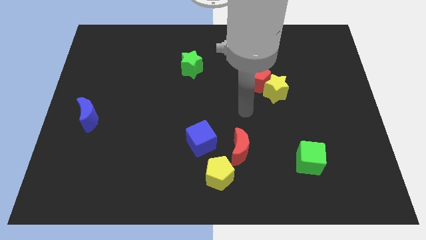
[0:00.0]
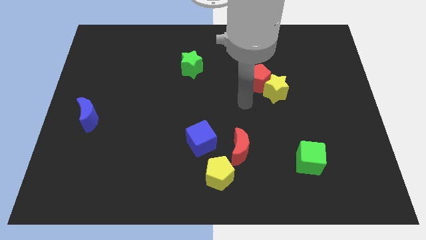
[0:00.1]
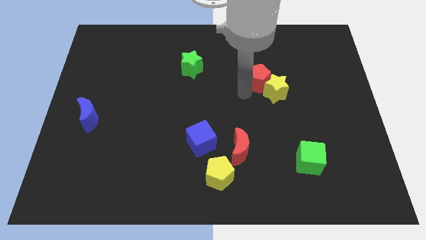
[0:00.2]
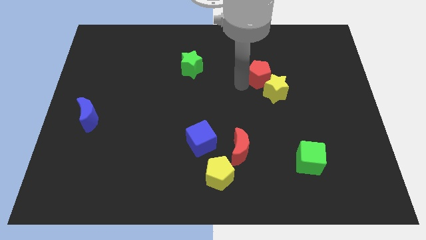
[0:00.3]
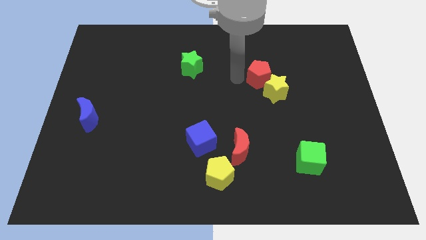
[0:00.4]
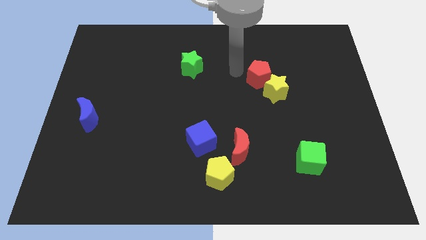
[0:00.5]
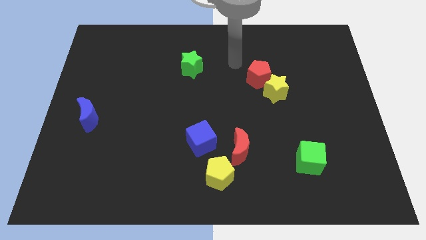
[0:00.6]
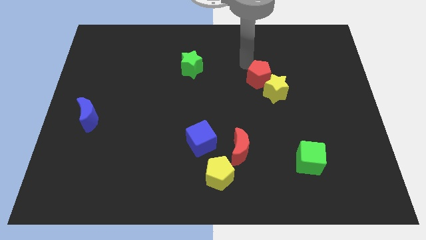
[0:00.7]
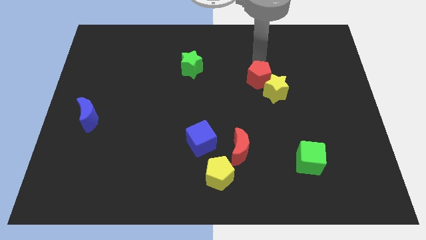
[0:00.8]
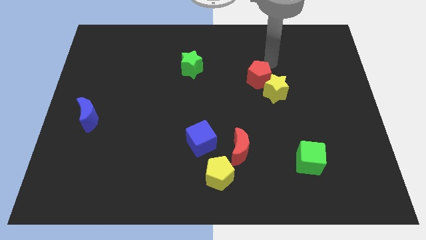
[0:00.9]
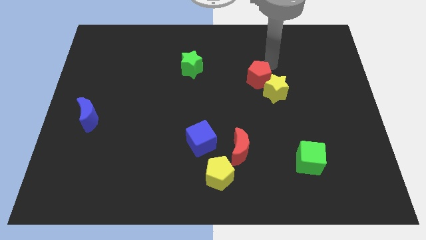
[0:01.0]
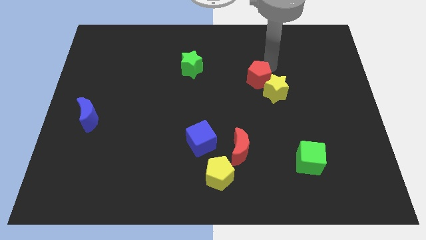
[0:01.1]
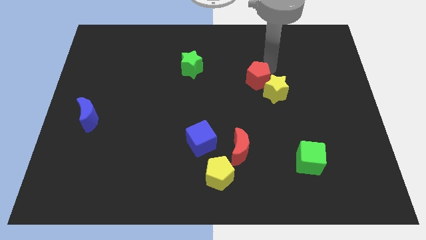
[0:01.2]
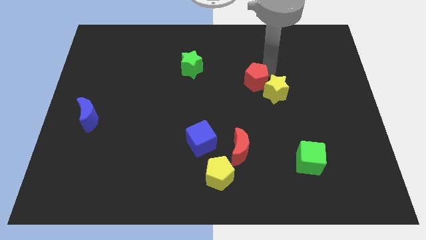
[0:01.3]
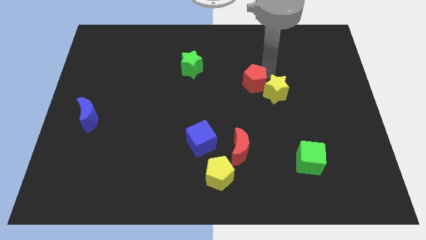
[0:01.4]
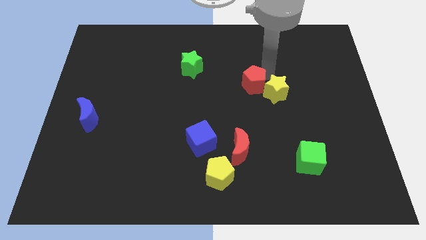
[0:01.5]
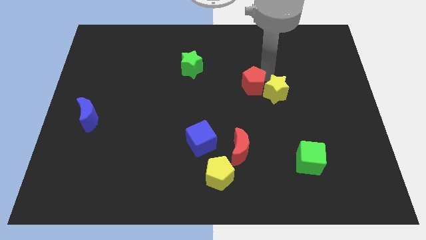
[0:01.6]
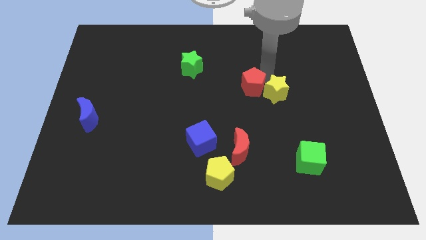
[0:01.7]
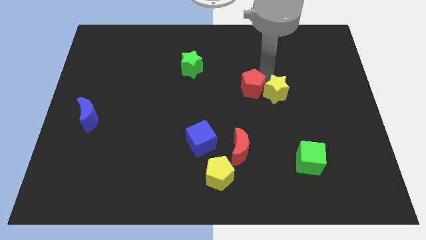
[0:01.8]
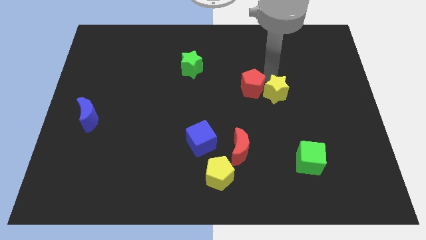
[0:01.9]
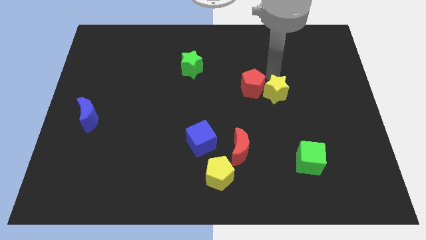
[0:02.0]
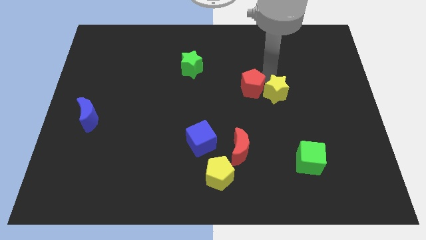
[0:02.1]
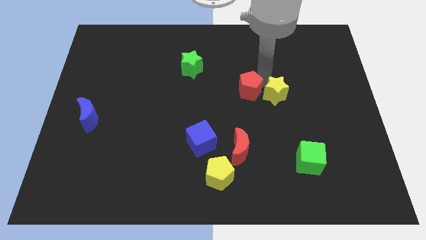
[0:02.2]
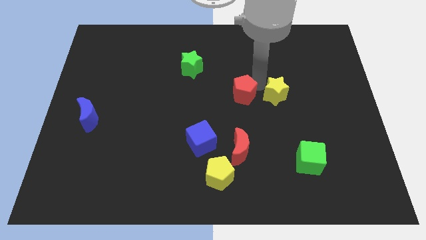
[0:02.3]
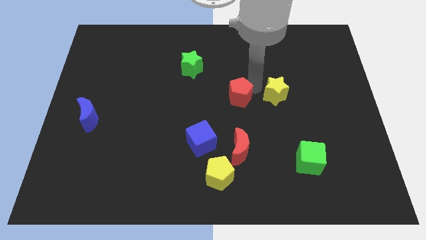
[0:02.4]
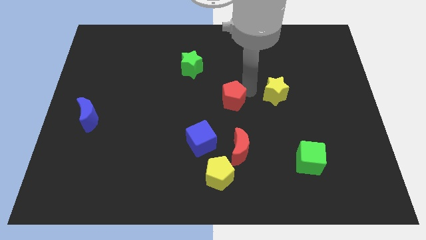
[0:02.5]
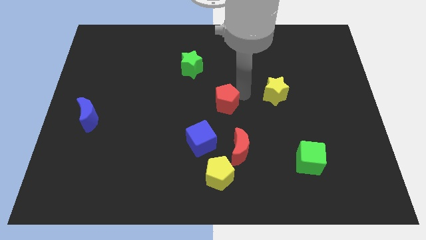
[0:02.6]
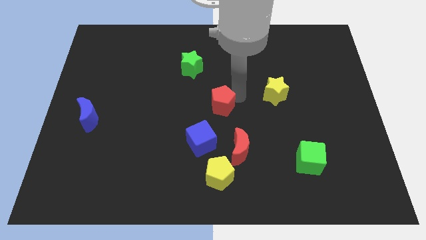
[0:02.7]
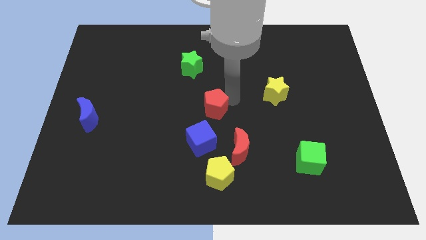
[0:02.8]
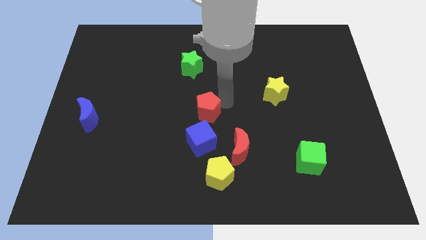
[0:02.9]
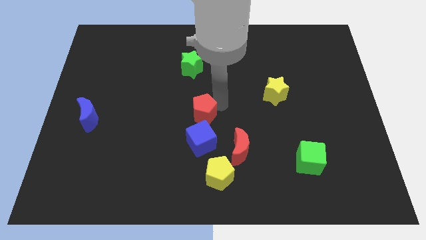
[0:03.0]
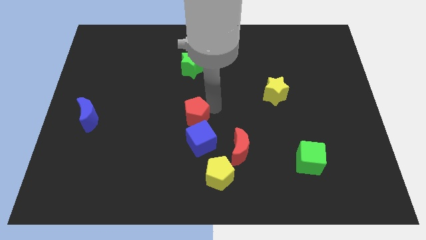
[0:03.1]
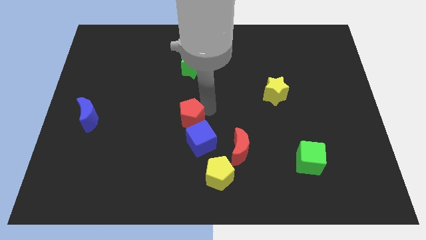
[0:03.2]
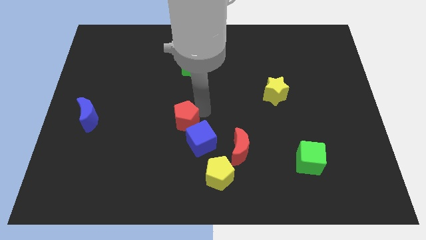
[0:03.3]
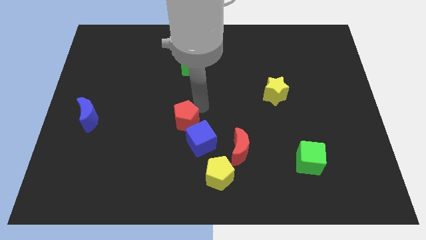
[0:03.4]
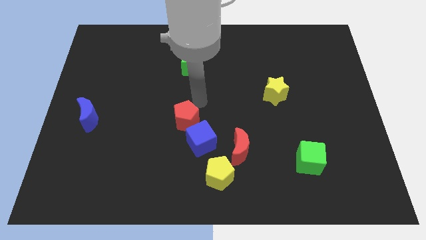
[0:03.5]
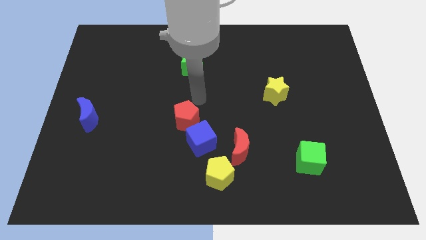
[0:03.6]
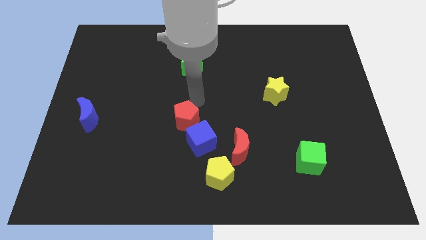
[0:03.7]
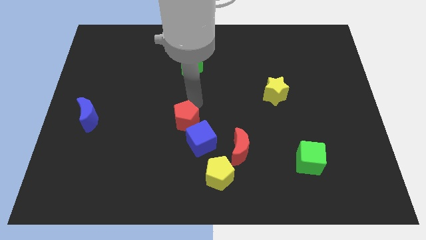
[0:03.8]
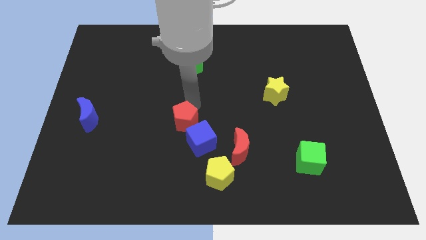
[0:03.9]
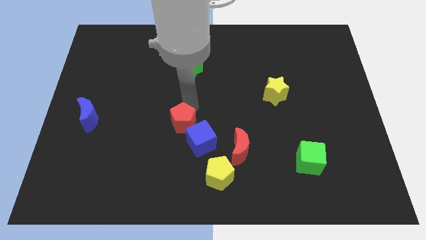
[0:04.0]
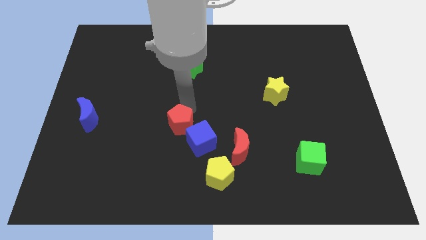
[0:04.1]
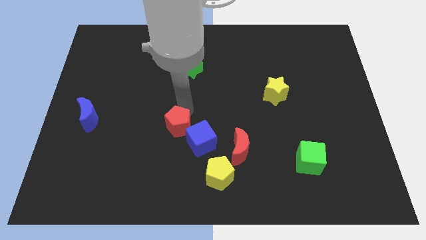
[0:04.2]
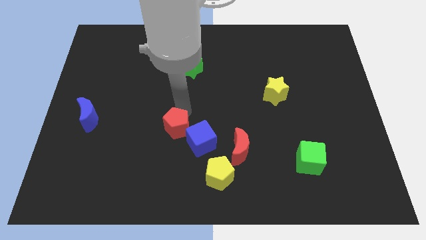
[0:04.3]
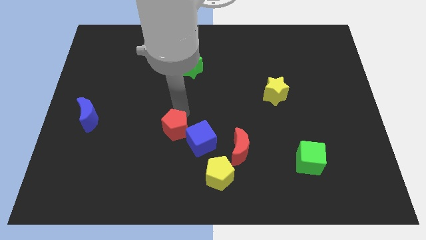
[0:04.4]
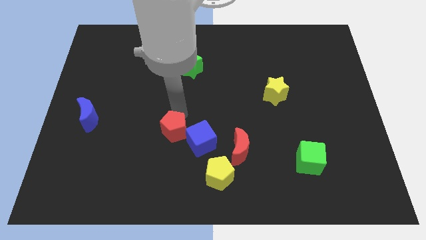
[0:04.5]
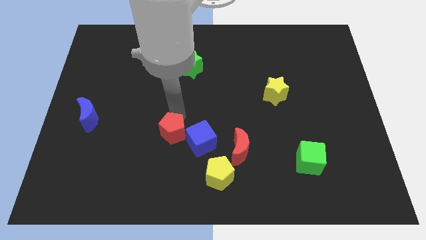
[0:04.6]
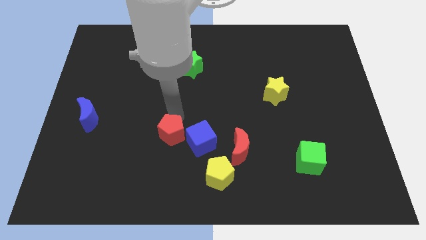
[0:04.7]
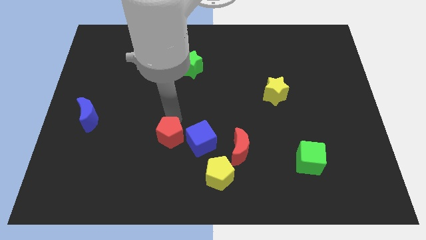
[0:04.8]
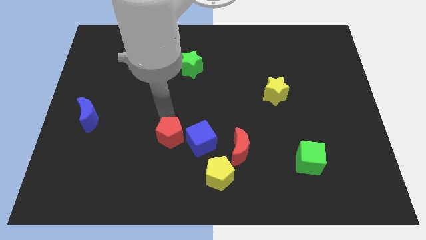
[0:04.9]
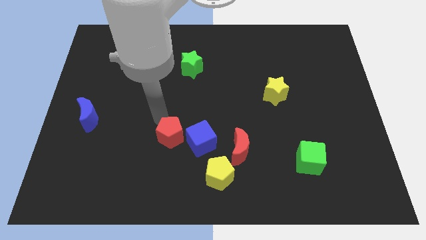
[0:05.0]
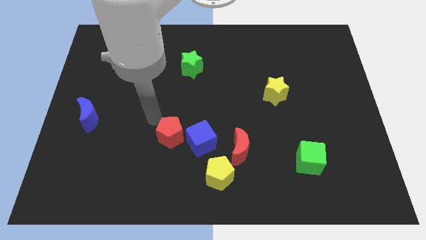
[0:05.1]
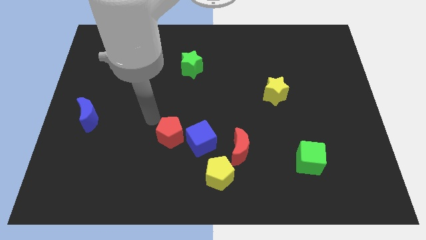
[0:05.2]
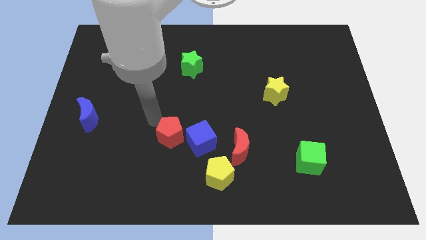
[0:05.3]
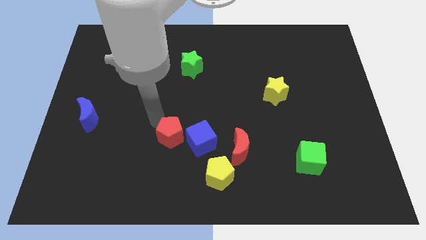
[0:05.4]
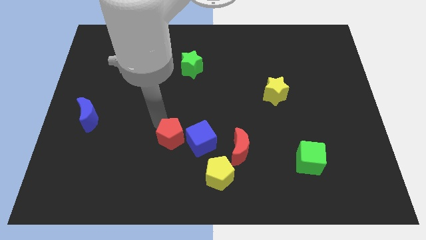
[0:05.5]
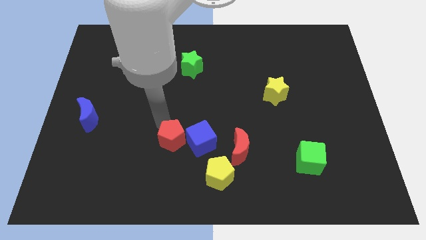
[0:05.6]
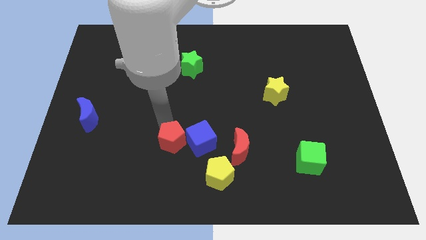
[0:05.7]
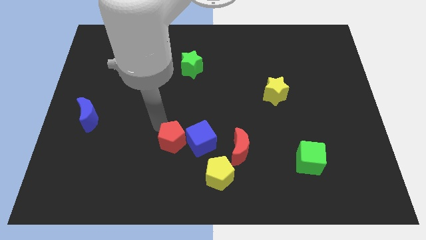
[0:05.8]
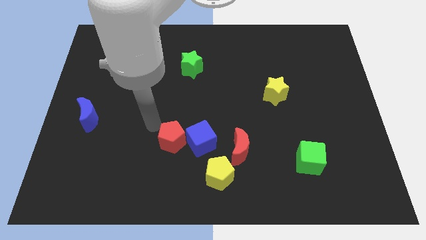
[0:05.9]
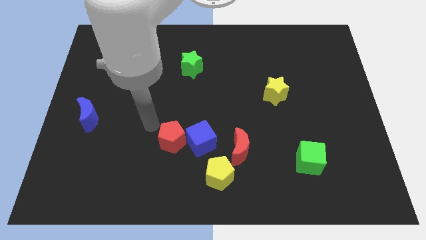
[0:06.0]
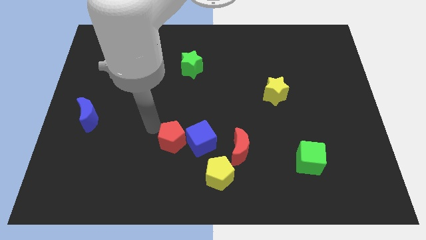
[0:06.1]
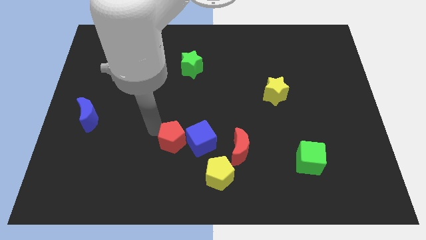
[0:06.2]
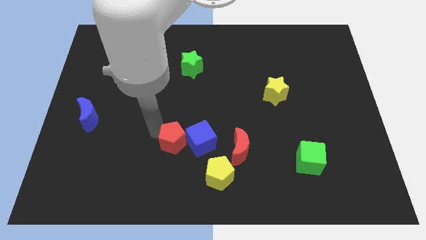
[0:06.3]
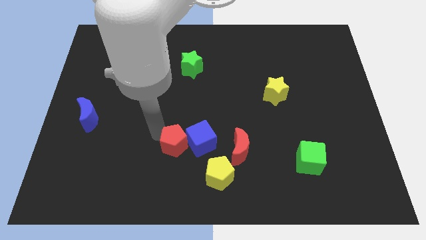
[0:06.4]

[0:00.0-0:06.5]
move the red pentagon to the top left of the yellow pentagon

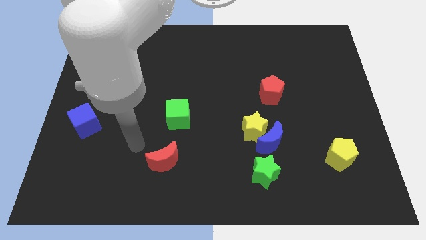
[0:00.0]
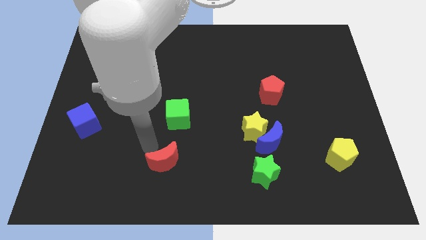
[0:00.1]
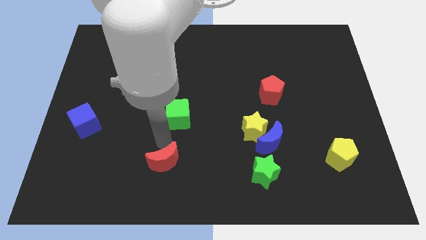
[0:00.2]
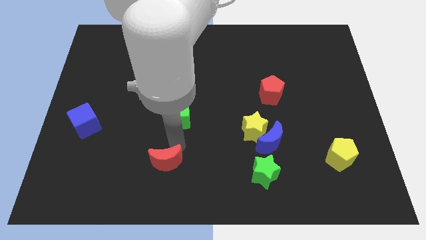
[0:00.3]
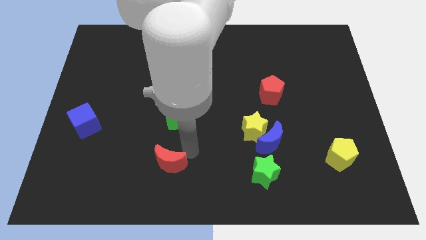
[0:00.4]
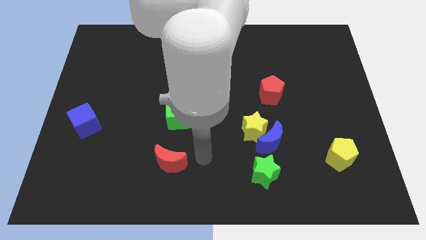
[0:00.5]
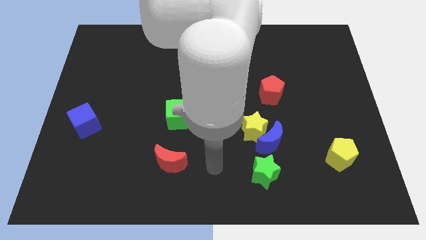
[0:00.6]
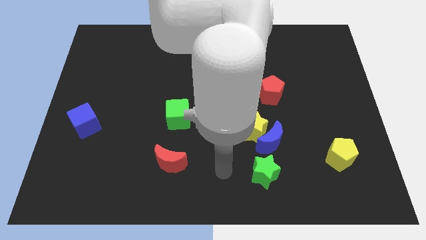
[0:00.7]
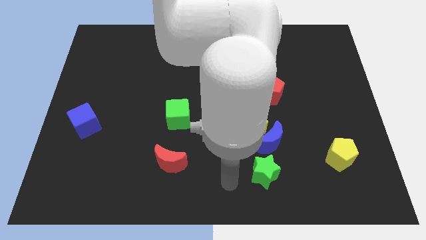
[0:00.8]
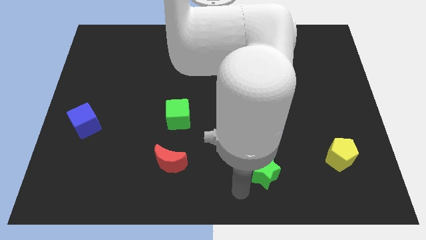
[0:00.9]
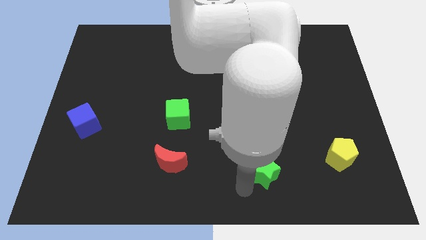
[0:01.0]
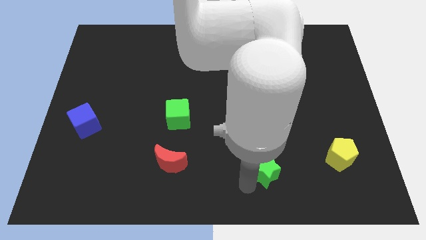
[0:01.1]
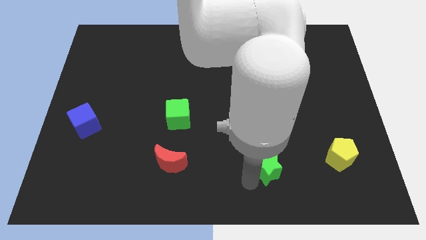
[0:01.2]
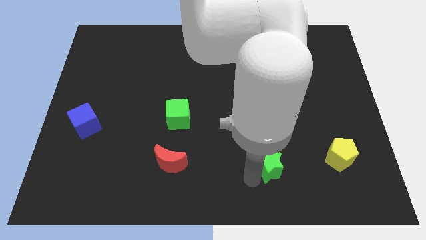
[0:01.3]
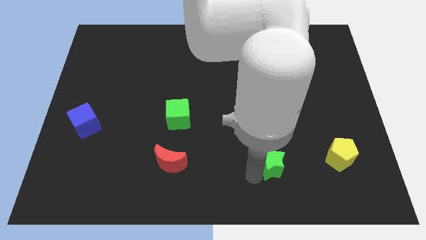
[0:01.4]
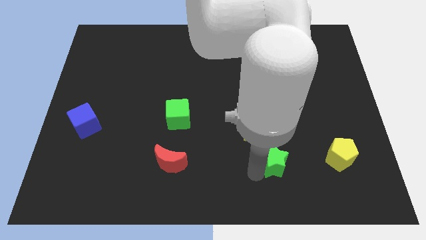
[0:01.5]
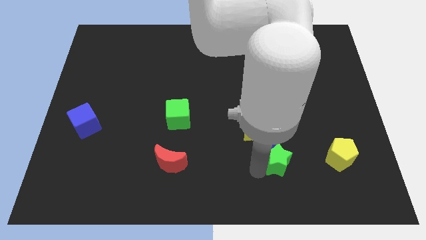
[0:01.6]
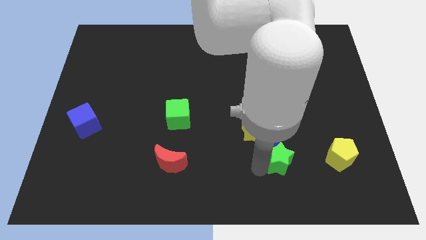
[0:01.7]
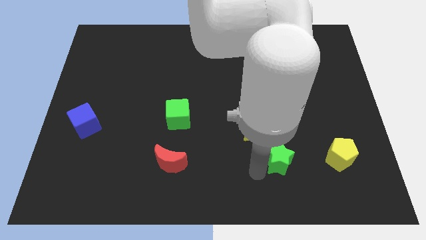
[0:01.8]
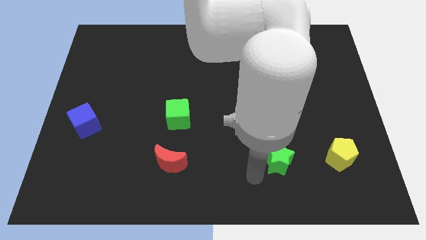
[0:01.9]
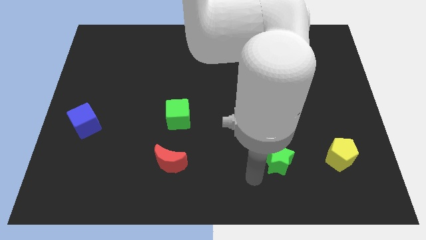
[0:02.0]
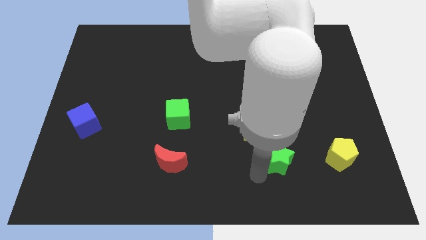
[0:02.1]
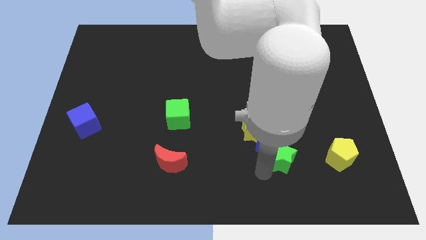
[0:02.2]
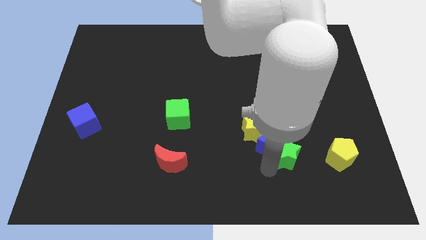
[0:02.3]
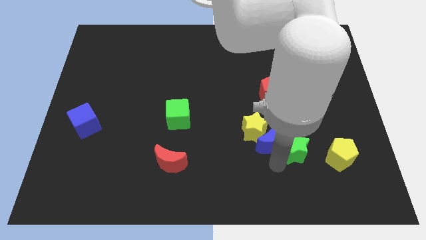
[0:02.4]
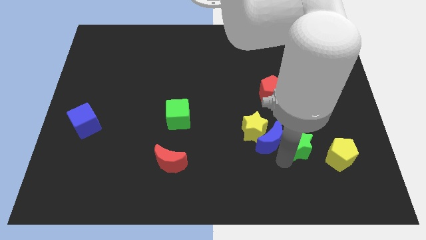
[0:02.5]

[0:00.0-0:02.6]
move the green star to the top left side of the yellow pentagon
